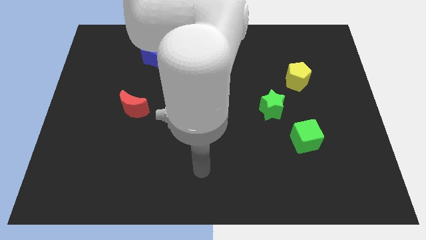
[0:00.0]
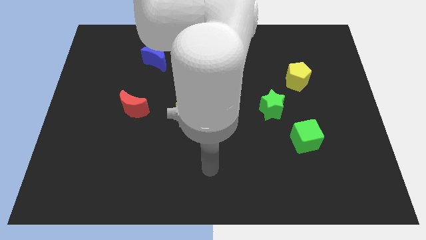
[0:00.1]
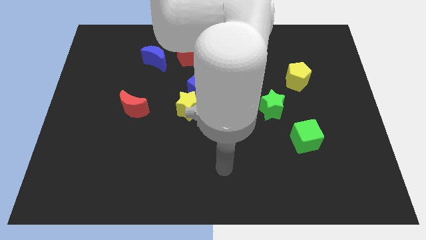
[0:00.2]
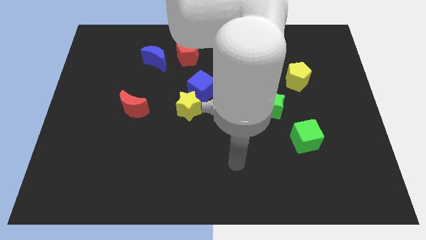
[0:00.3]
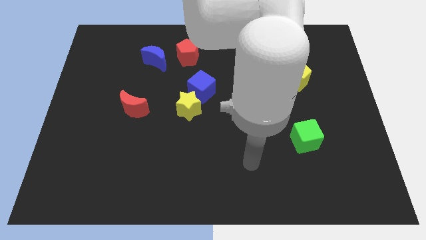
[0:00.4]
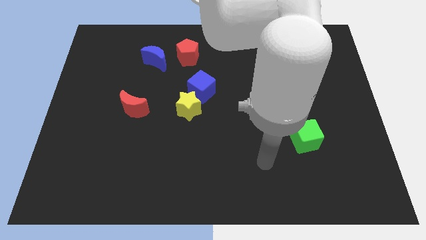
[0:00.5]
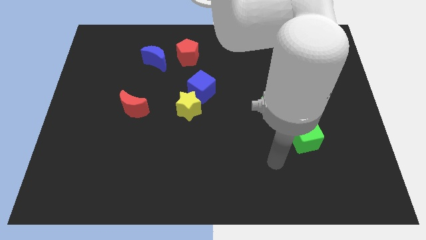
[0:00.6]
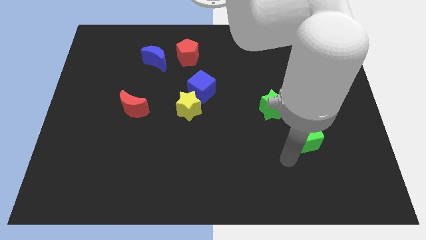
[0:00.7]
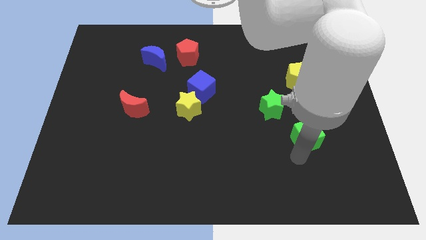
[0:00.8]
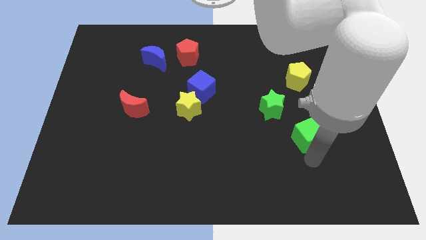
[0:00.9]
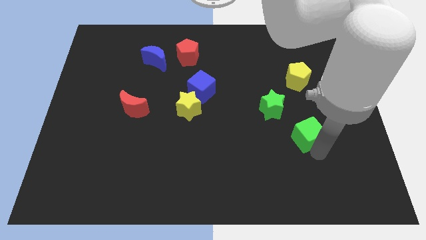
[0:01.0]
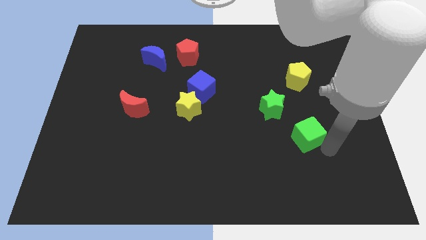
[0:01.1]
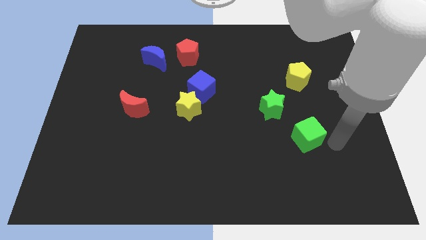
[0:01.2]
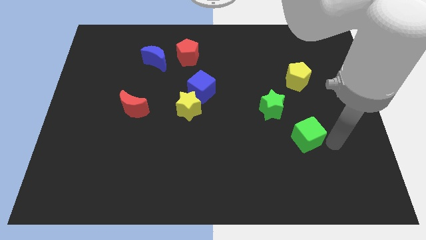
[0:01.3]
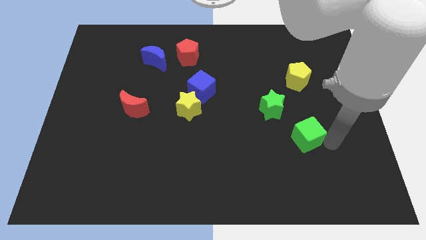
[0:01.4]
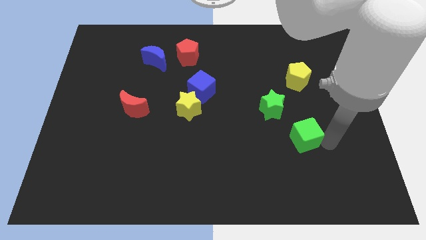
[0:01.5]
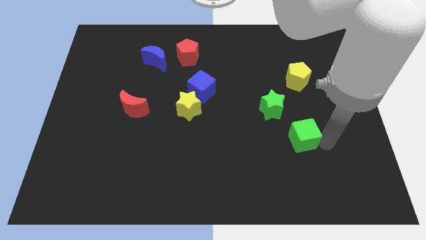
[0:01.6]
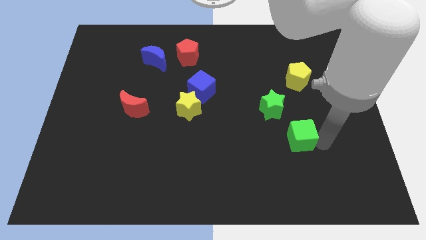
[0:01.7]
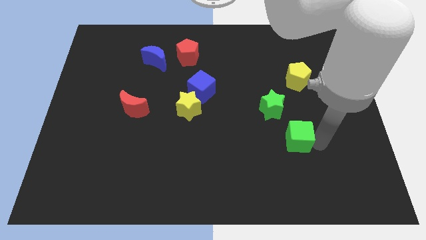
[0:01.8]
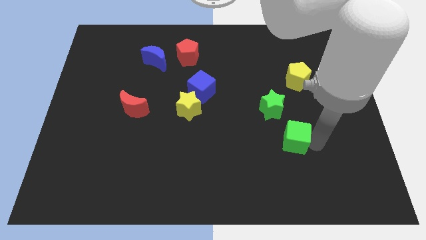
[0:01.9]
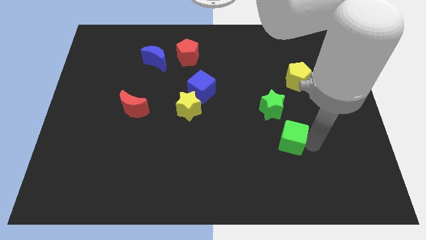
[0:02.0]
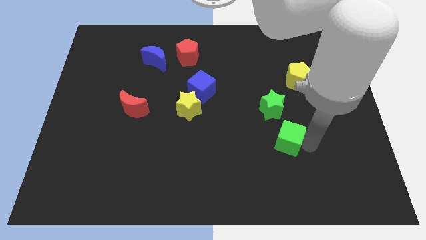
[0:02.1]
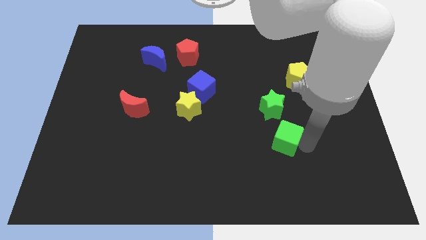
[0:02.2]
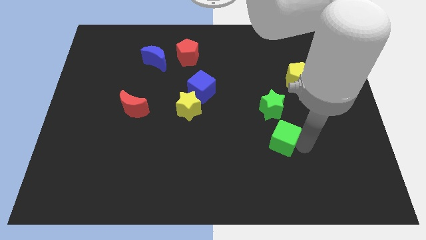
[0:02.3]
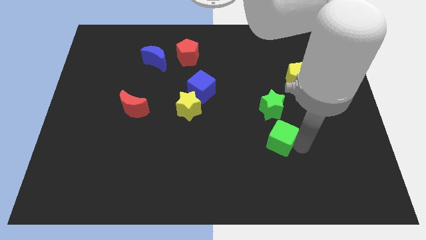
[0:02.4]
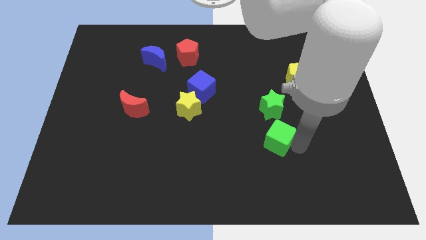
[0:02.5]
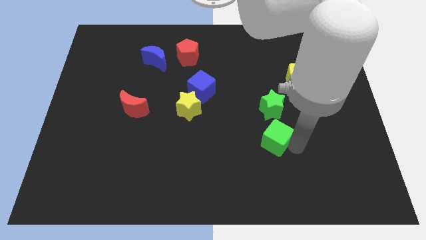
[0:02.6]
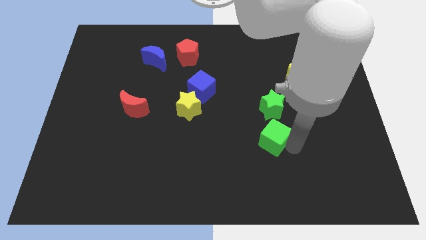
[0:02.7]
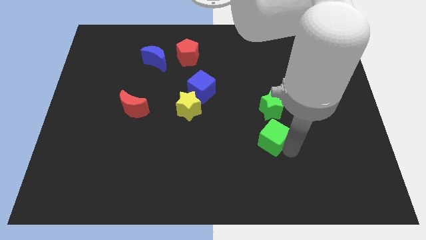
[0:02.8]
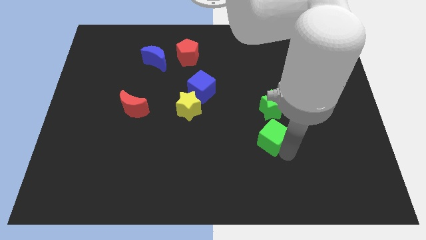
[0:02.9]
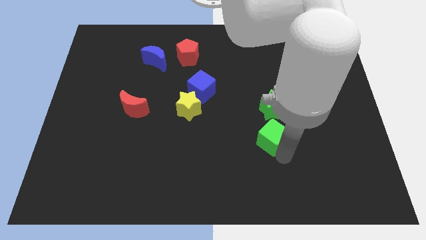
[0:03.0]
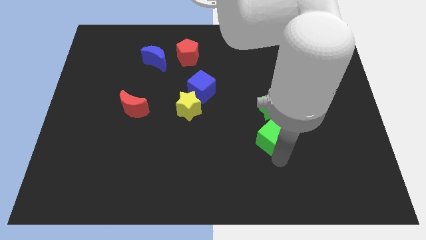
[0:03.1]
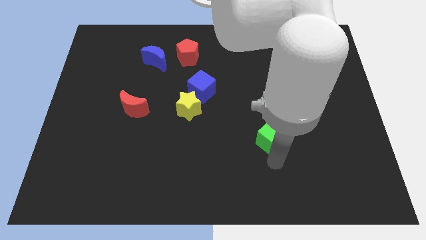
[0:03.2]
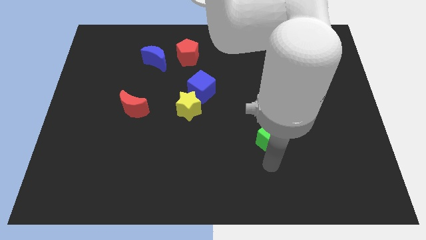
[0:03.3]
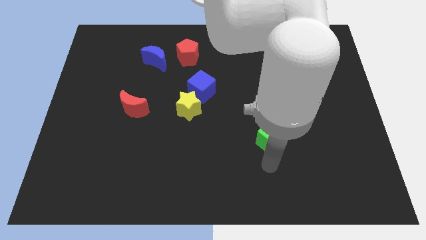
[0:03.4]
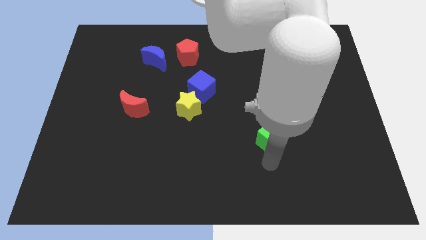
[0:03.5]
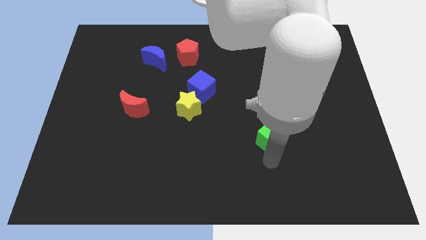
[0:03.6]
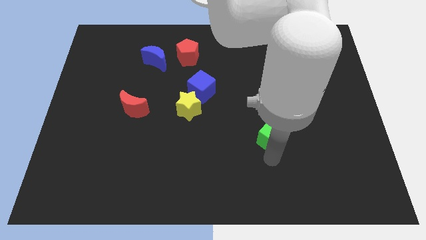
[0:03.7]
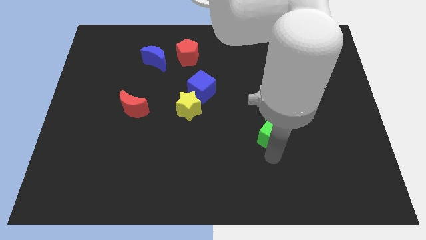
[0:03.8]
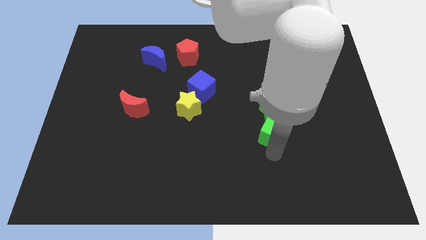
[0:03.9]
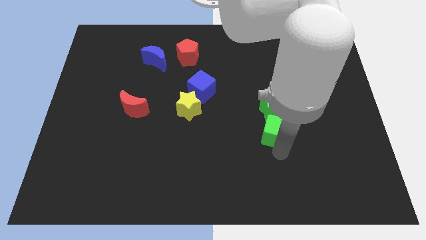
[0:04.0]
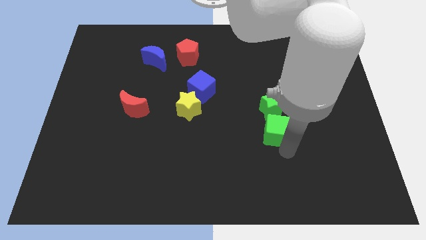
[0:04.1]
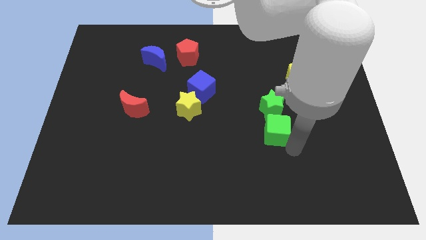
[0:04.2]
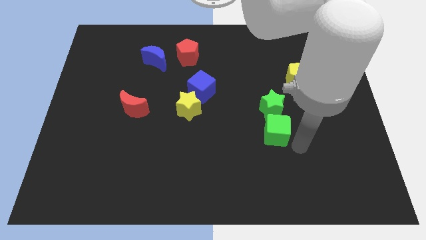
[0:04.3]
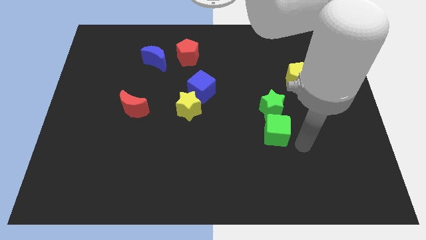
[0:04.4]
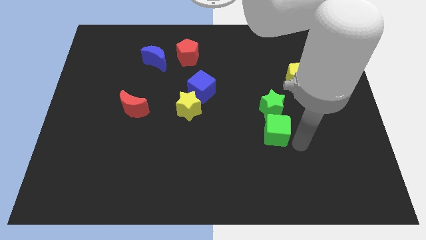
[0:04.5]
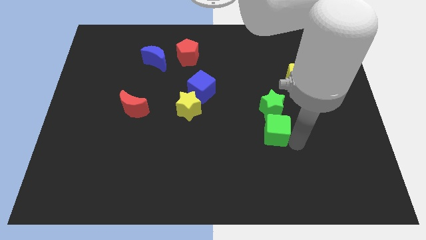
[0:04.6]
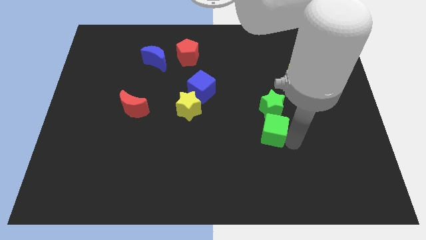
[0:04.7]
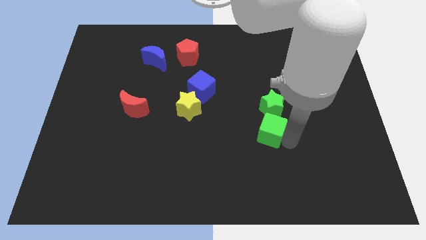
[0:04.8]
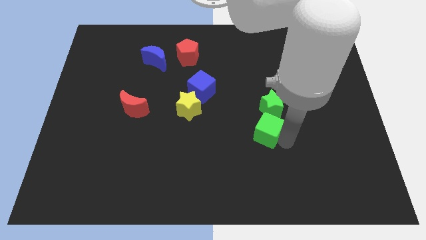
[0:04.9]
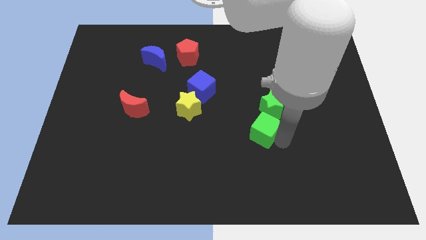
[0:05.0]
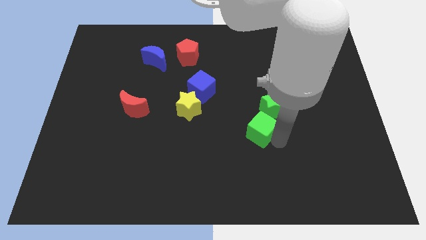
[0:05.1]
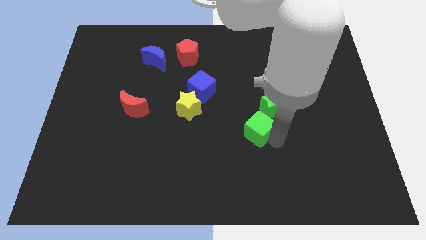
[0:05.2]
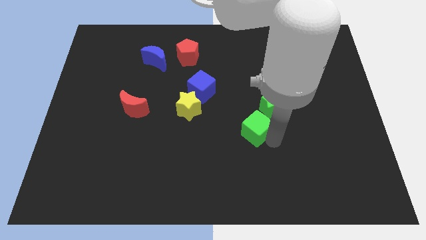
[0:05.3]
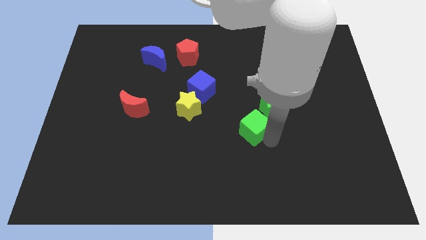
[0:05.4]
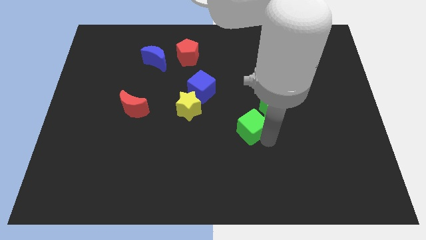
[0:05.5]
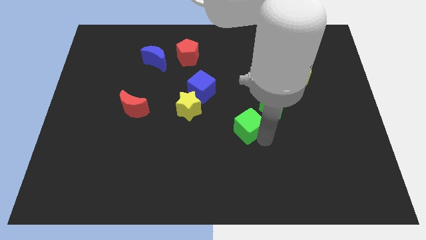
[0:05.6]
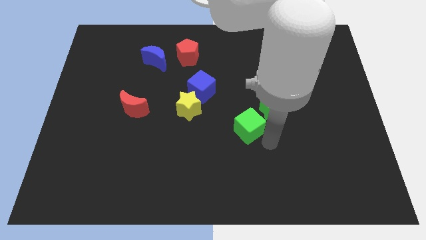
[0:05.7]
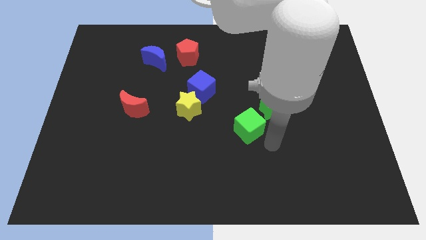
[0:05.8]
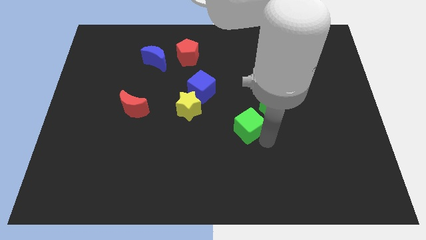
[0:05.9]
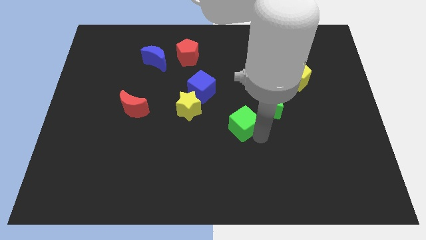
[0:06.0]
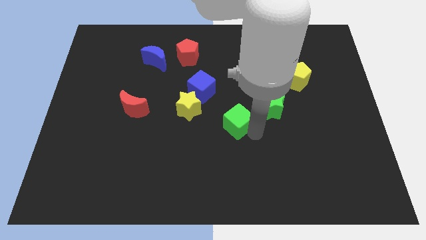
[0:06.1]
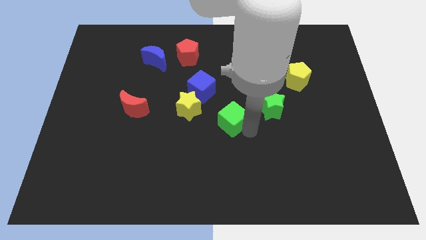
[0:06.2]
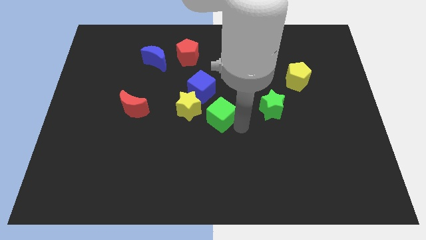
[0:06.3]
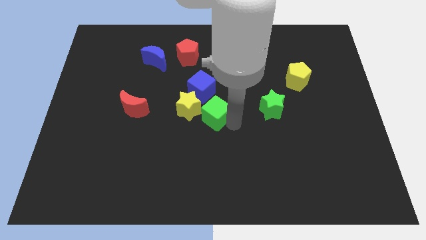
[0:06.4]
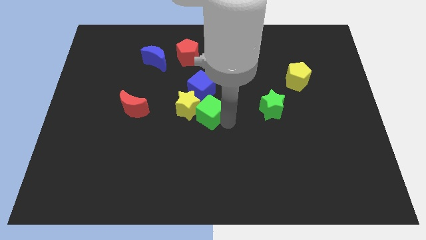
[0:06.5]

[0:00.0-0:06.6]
put the green cube next to the yellow star

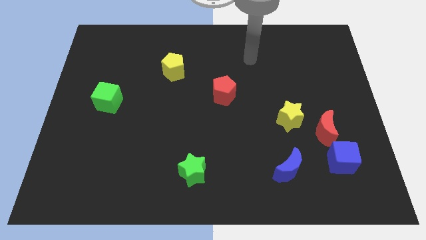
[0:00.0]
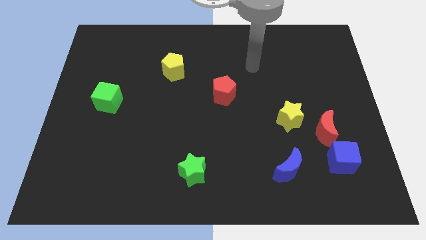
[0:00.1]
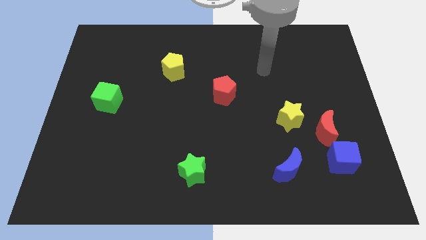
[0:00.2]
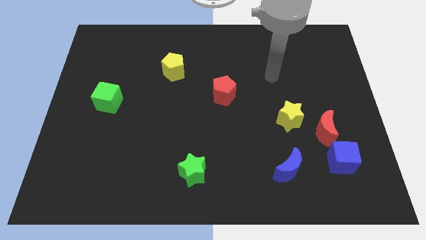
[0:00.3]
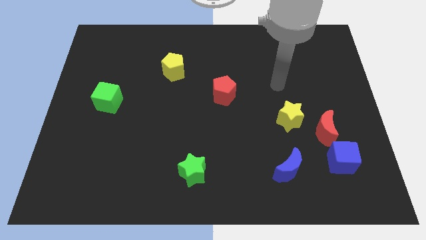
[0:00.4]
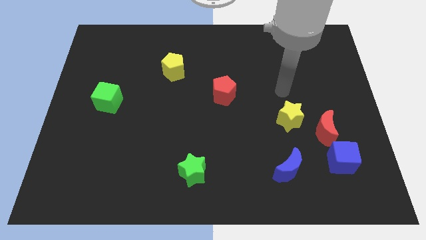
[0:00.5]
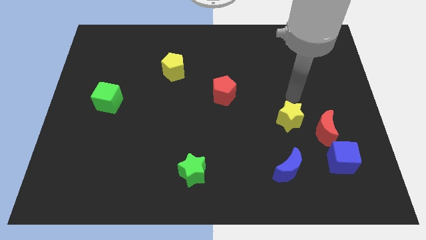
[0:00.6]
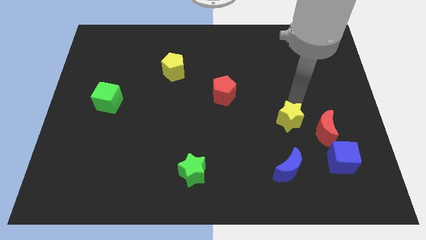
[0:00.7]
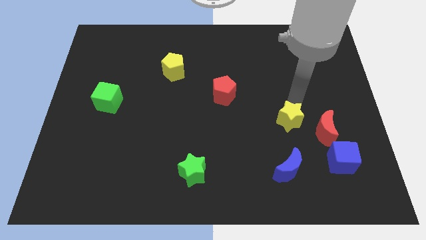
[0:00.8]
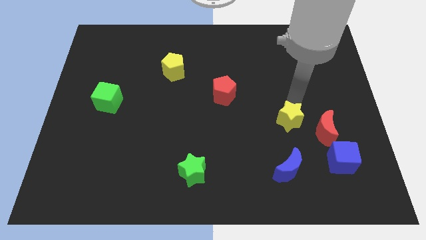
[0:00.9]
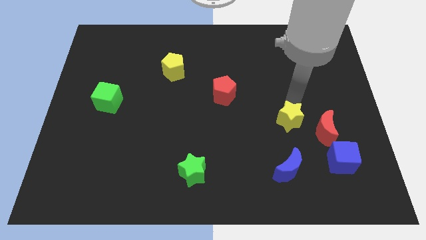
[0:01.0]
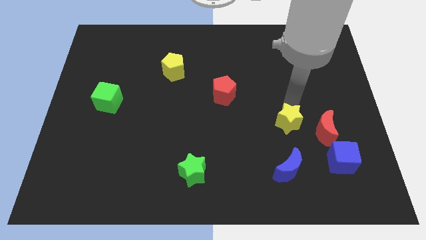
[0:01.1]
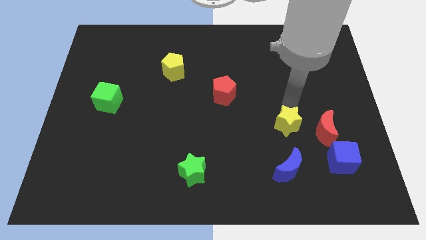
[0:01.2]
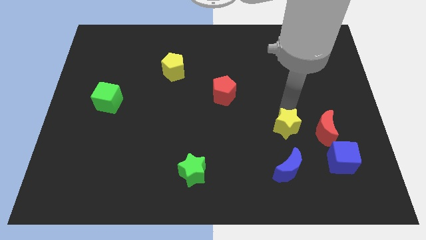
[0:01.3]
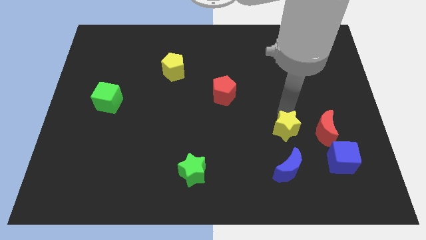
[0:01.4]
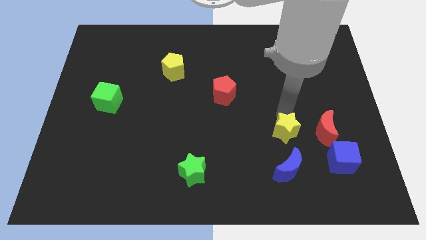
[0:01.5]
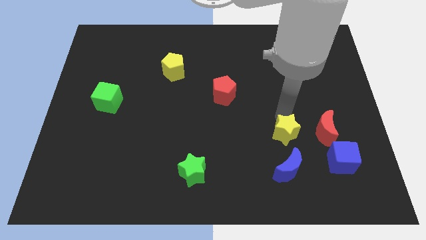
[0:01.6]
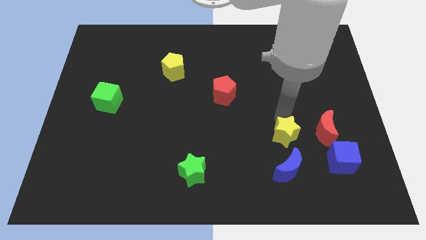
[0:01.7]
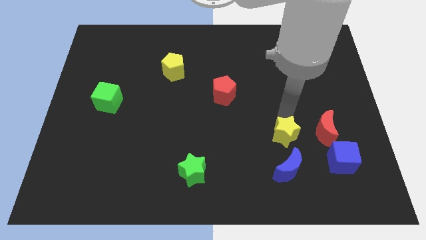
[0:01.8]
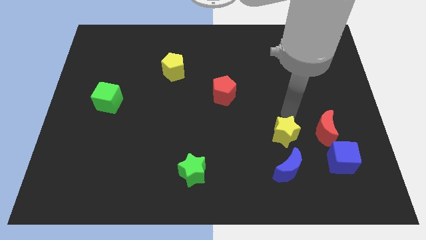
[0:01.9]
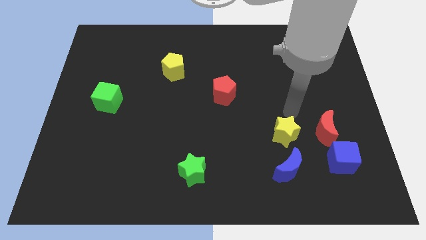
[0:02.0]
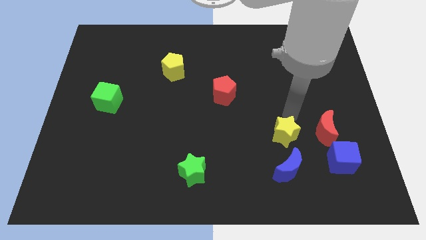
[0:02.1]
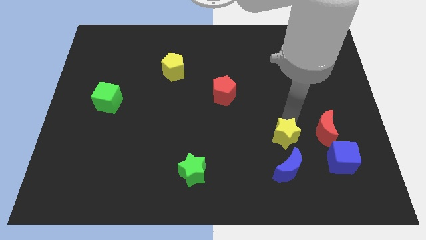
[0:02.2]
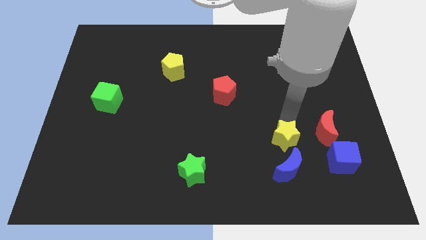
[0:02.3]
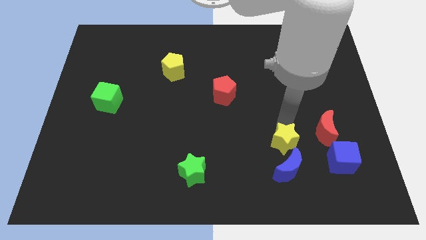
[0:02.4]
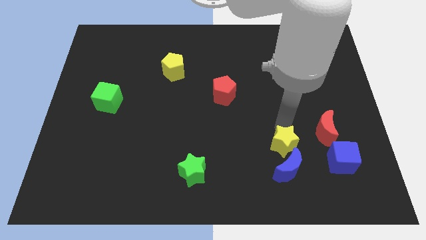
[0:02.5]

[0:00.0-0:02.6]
put the yellow star towards the blue moon
